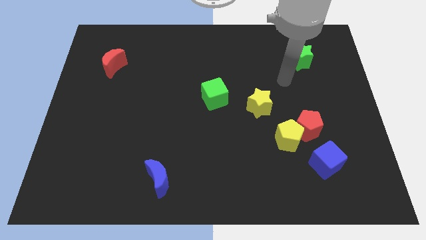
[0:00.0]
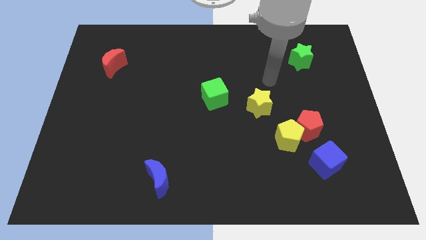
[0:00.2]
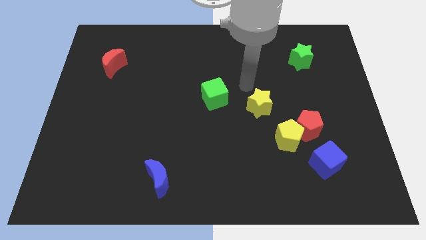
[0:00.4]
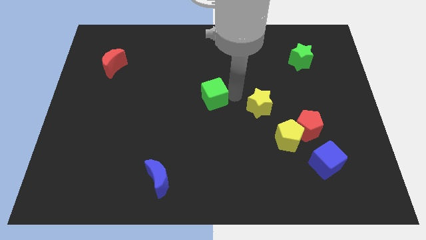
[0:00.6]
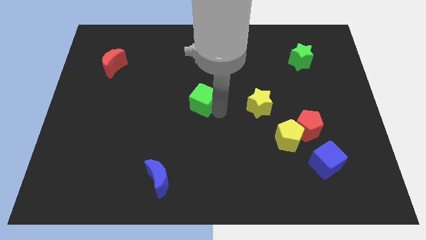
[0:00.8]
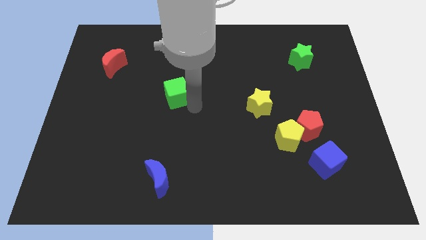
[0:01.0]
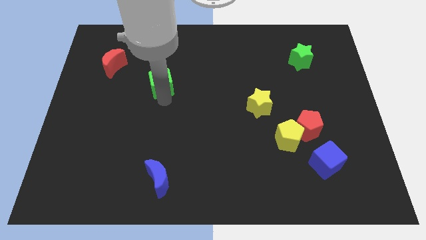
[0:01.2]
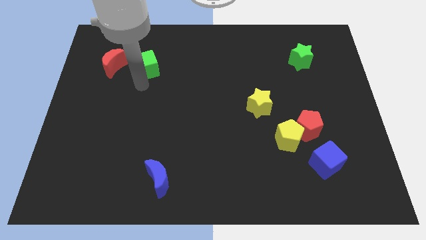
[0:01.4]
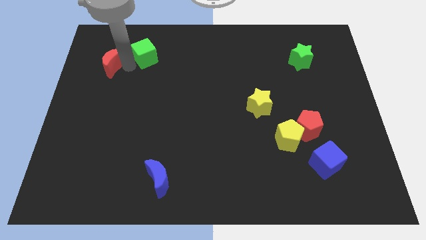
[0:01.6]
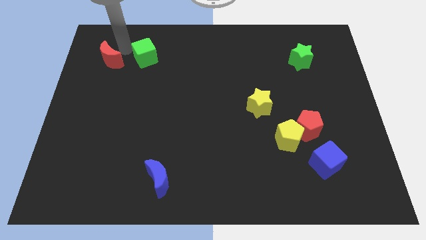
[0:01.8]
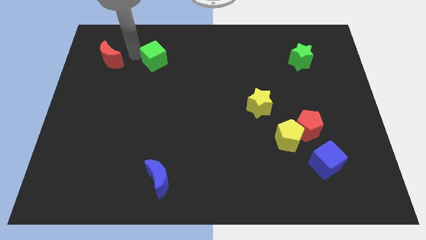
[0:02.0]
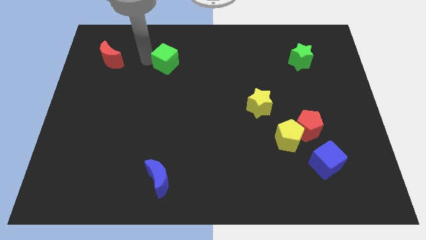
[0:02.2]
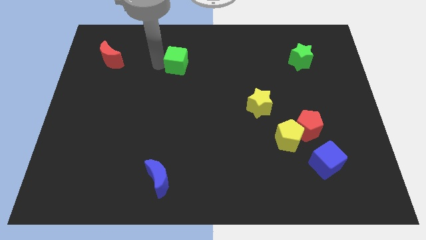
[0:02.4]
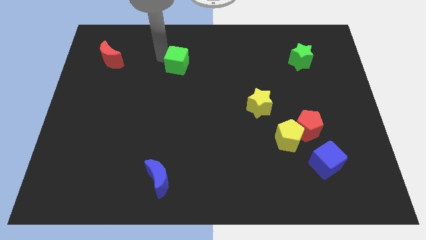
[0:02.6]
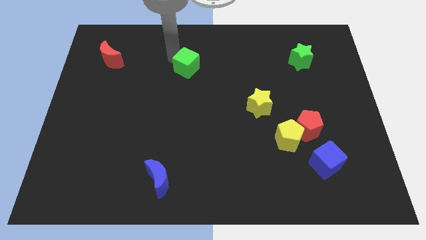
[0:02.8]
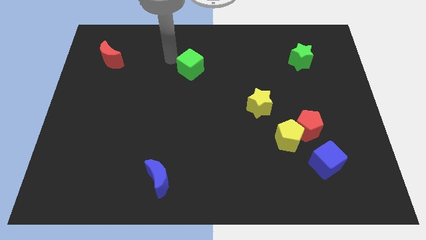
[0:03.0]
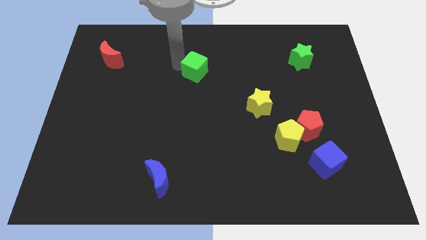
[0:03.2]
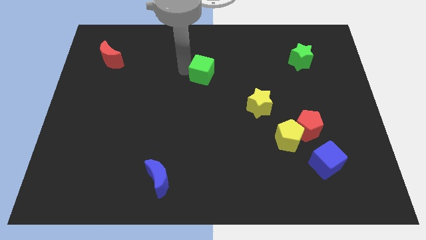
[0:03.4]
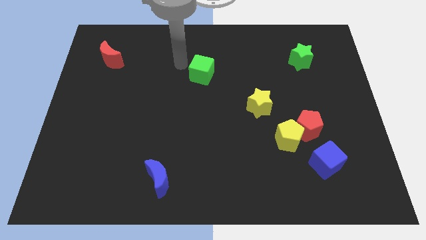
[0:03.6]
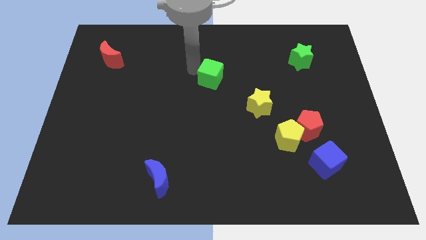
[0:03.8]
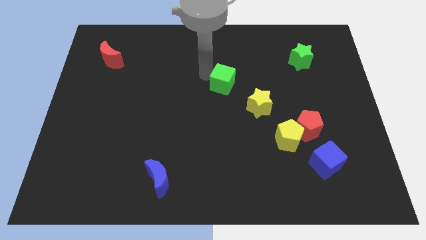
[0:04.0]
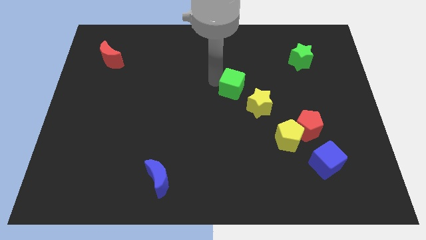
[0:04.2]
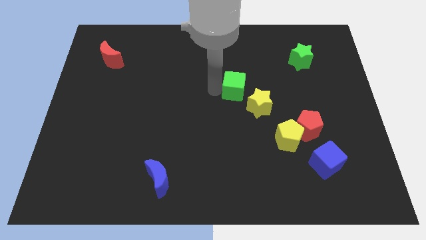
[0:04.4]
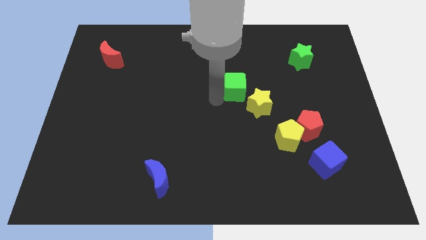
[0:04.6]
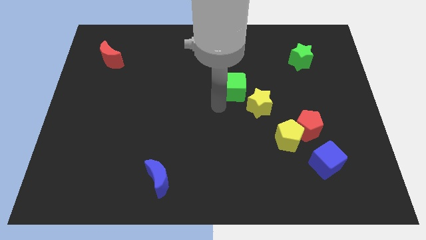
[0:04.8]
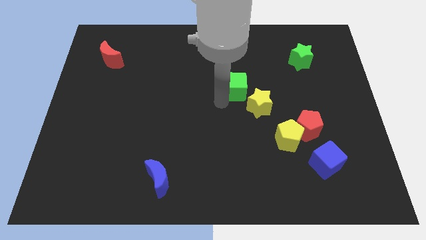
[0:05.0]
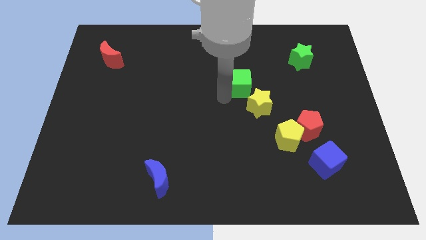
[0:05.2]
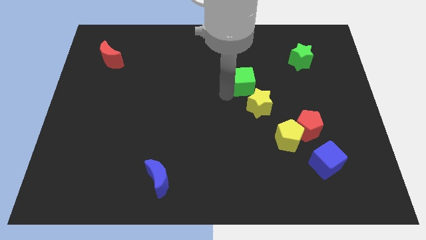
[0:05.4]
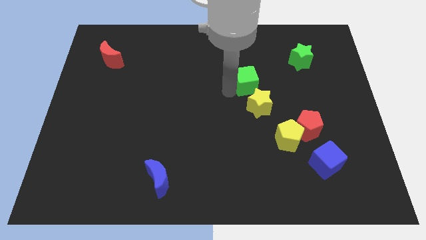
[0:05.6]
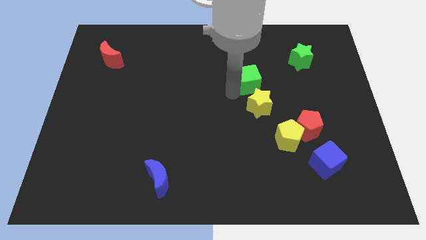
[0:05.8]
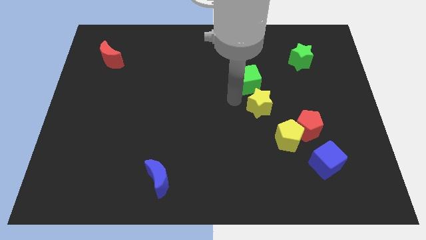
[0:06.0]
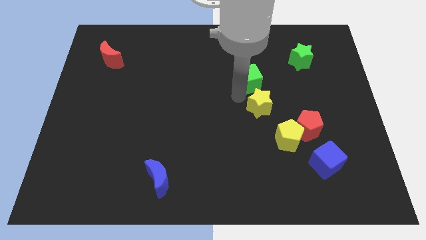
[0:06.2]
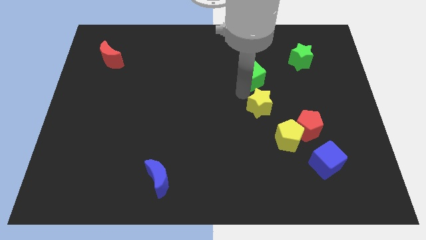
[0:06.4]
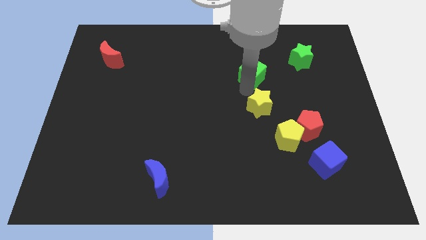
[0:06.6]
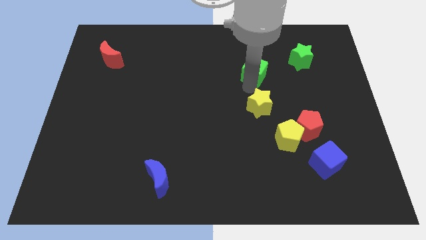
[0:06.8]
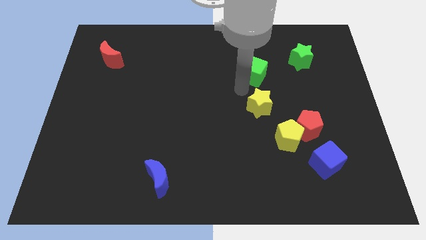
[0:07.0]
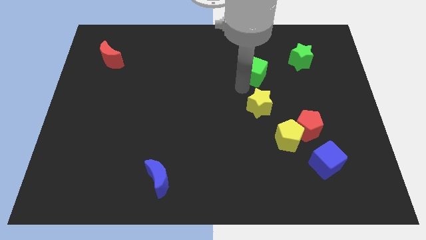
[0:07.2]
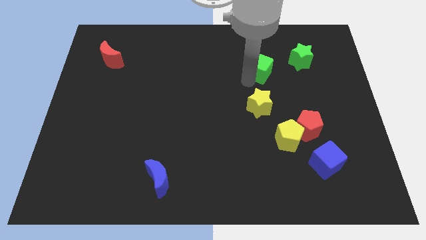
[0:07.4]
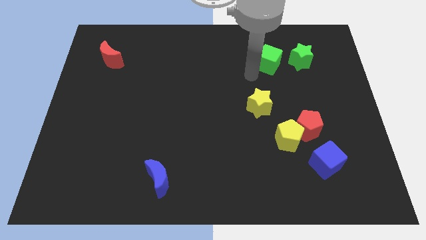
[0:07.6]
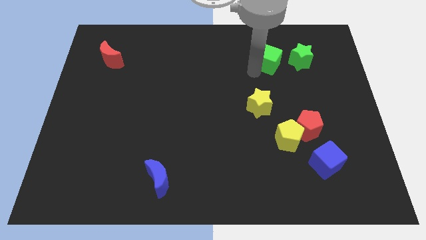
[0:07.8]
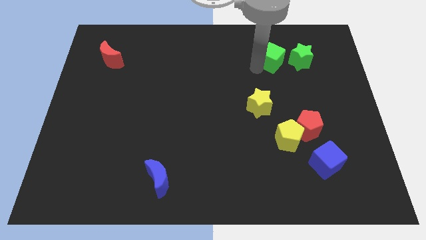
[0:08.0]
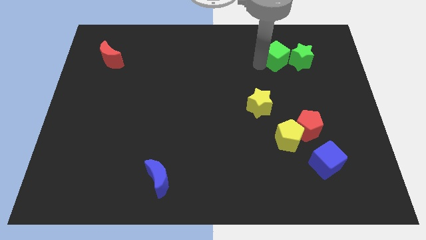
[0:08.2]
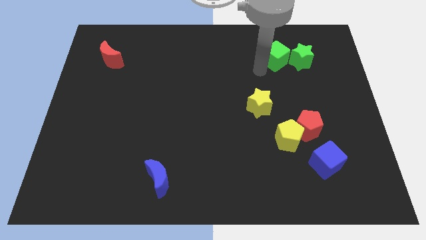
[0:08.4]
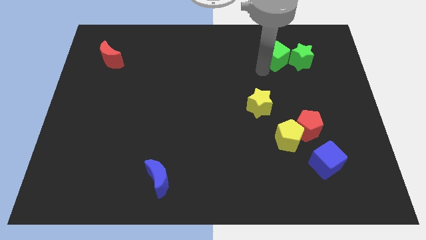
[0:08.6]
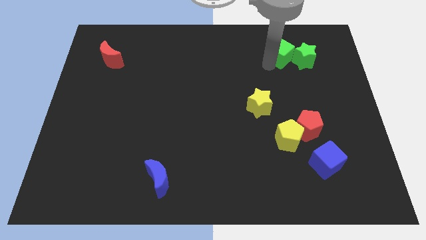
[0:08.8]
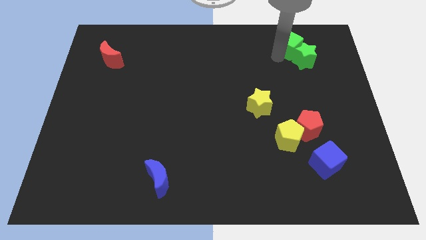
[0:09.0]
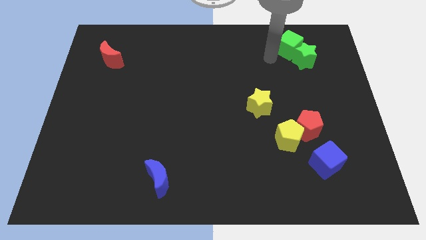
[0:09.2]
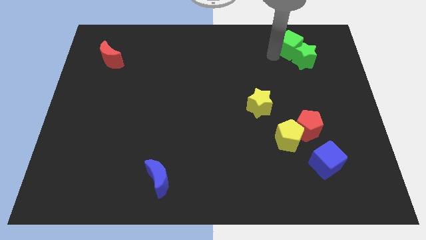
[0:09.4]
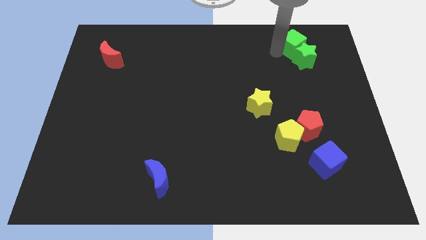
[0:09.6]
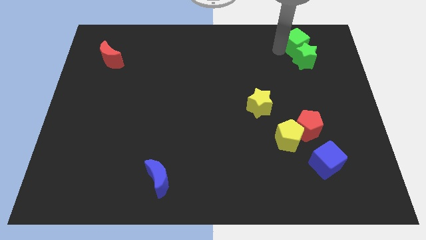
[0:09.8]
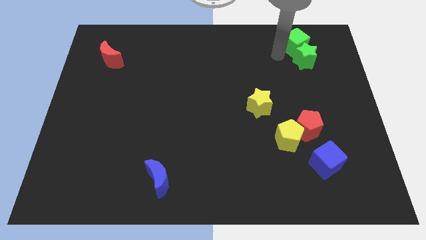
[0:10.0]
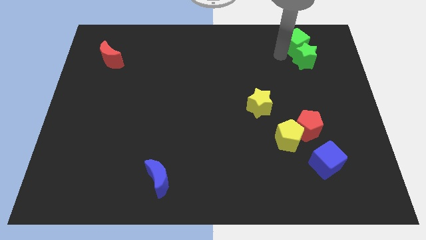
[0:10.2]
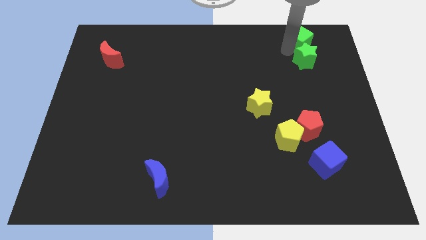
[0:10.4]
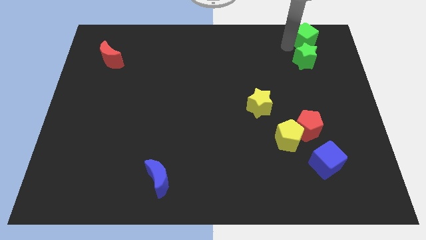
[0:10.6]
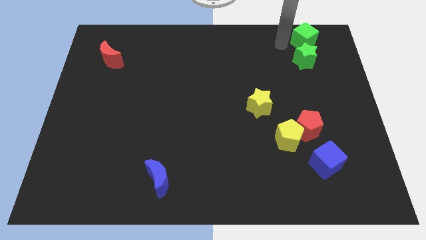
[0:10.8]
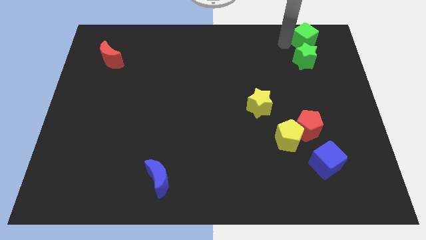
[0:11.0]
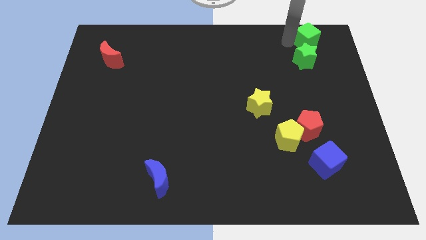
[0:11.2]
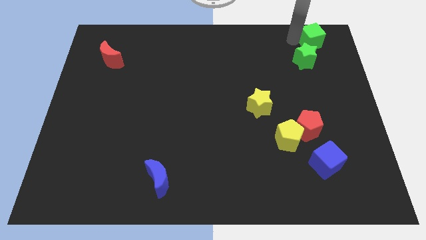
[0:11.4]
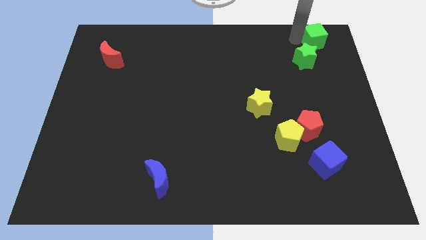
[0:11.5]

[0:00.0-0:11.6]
slide the green cube to the top right

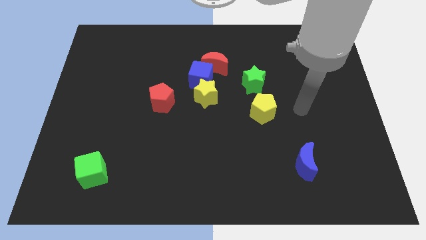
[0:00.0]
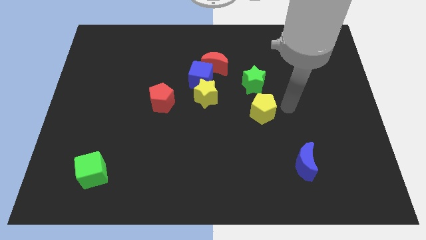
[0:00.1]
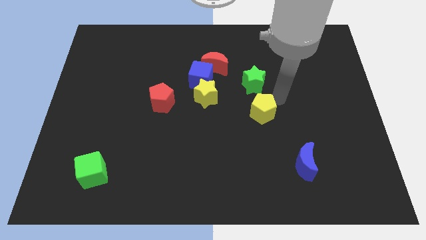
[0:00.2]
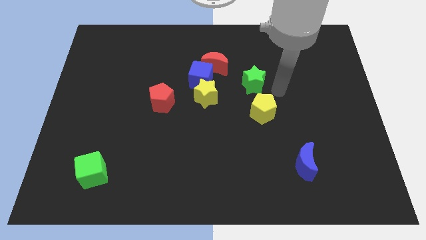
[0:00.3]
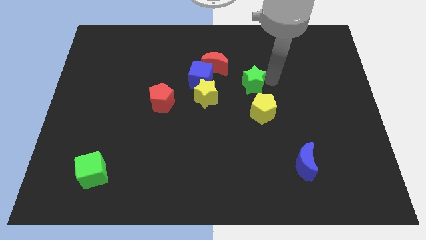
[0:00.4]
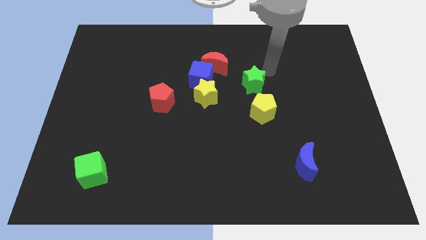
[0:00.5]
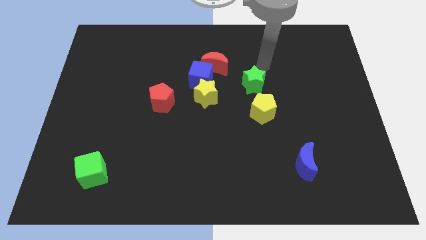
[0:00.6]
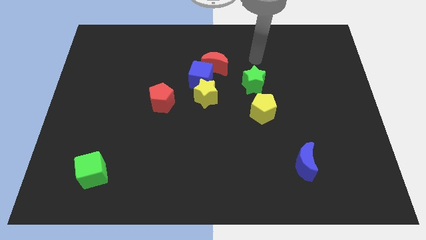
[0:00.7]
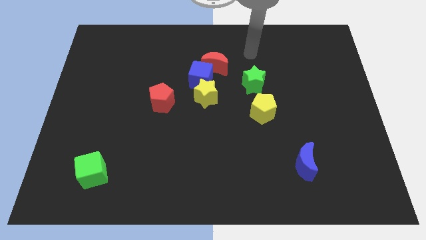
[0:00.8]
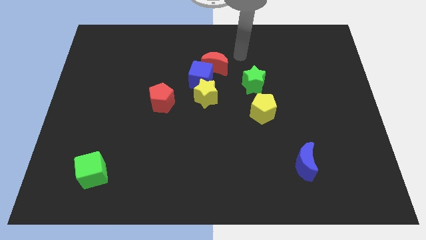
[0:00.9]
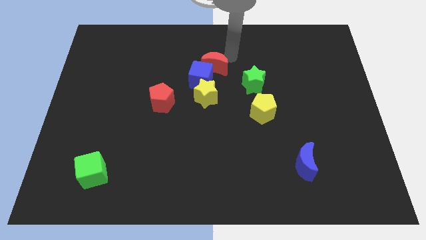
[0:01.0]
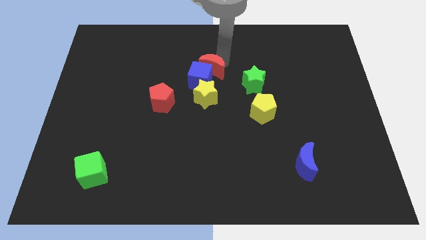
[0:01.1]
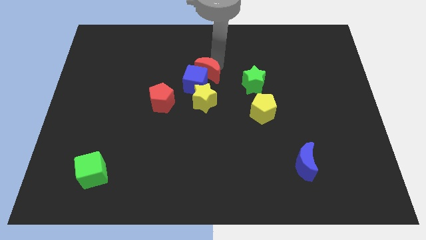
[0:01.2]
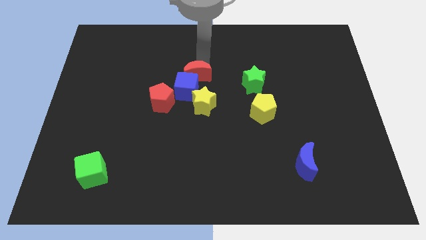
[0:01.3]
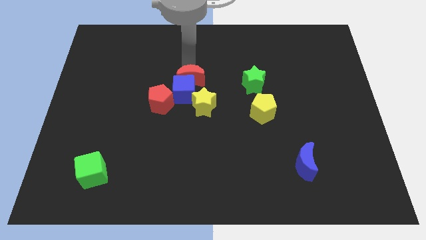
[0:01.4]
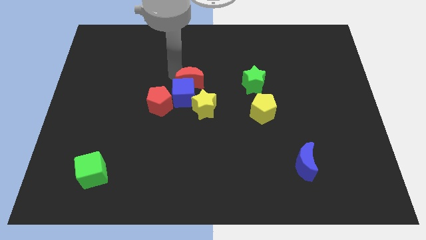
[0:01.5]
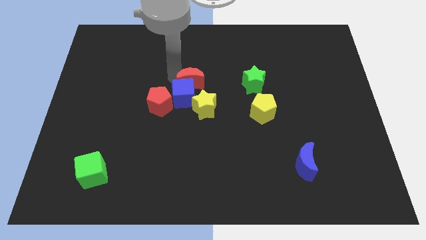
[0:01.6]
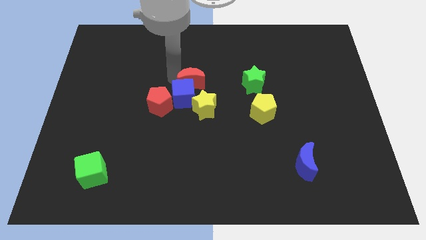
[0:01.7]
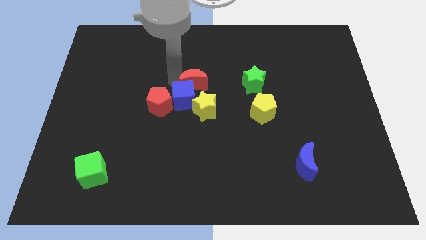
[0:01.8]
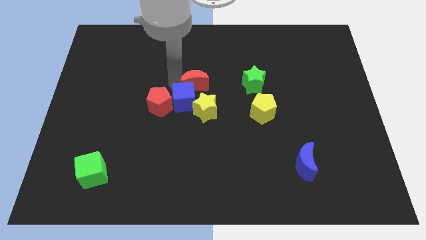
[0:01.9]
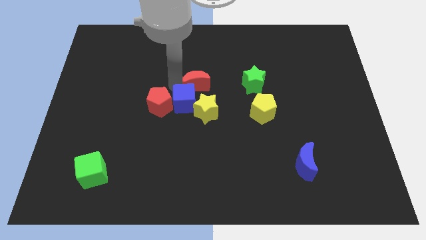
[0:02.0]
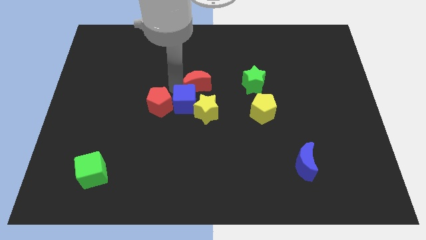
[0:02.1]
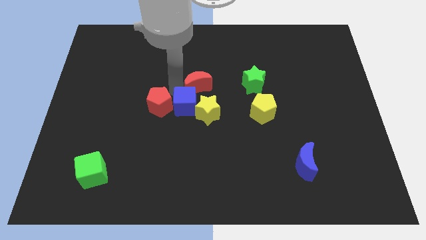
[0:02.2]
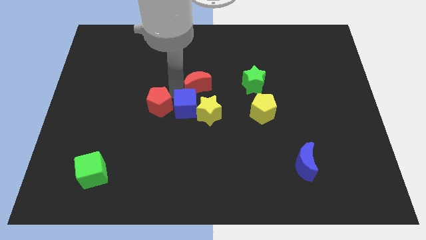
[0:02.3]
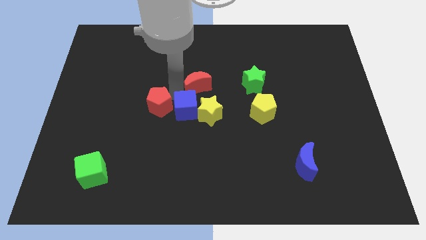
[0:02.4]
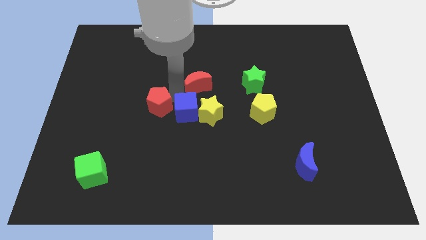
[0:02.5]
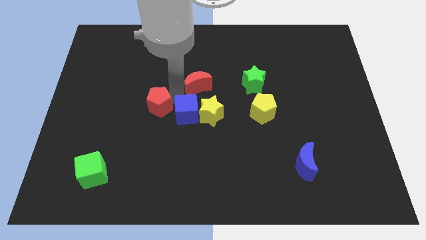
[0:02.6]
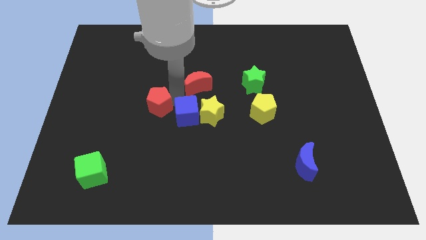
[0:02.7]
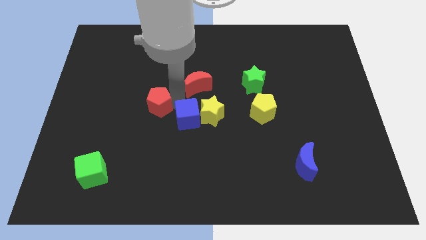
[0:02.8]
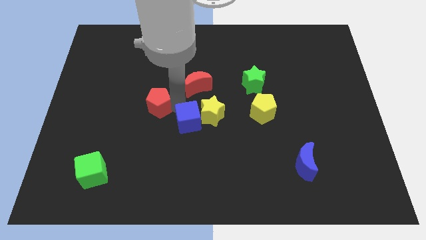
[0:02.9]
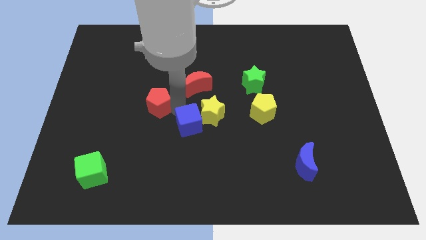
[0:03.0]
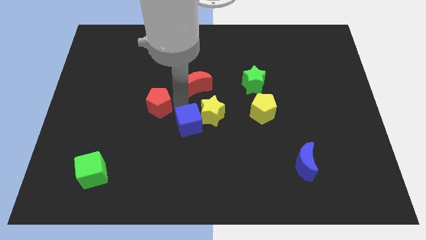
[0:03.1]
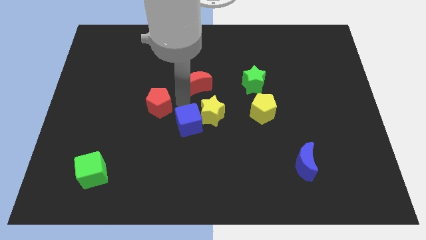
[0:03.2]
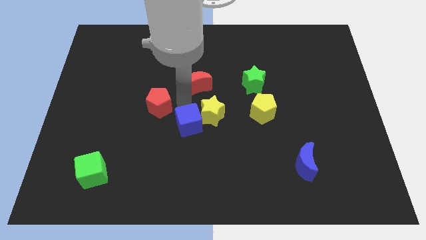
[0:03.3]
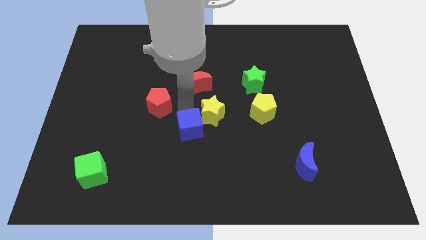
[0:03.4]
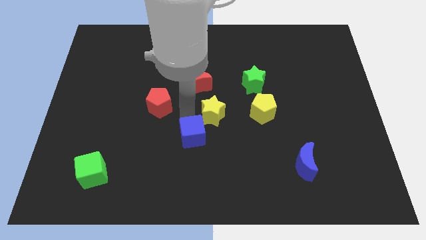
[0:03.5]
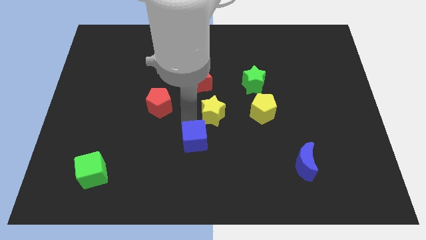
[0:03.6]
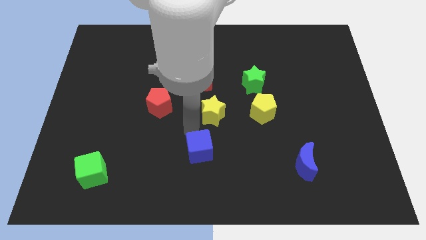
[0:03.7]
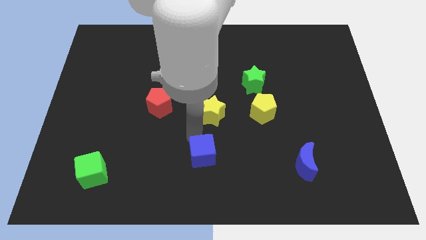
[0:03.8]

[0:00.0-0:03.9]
push the blue cube to the bottom
